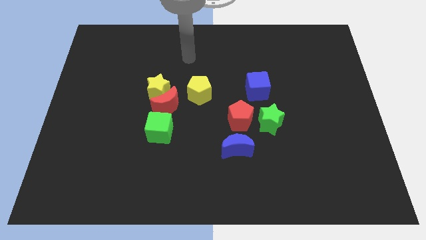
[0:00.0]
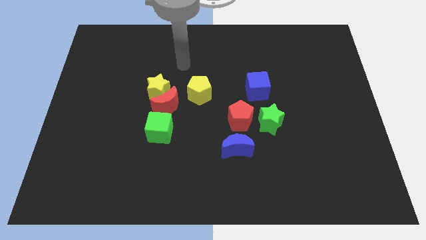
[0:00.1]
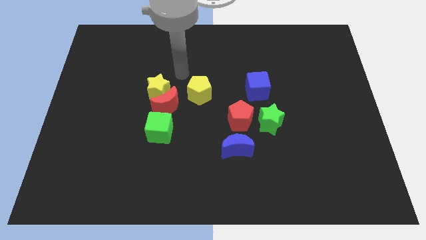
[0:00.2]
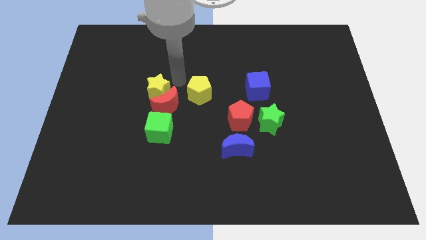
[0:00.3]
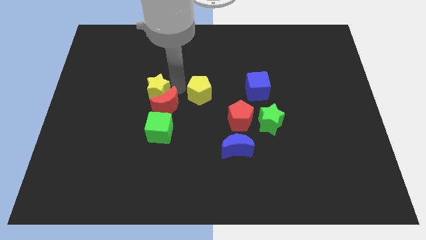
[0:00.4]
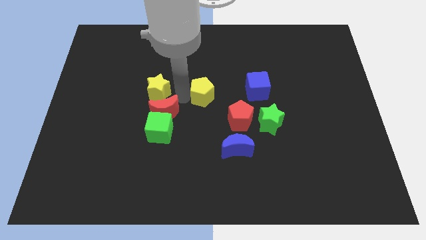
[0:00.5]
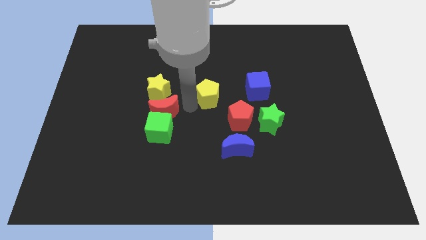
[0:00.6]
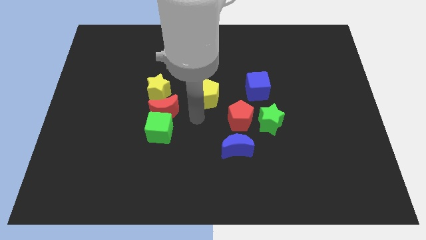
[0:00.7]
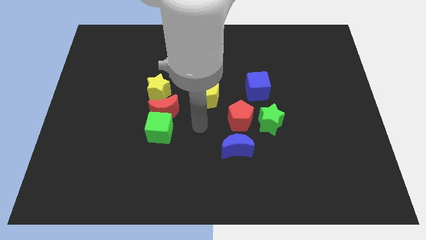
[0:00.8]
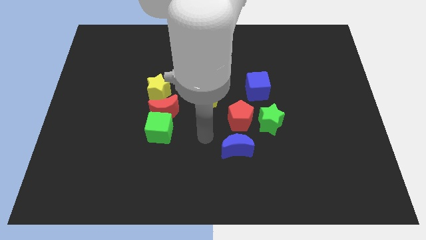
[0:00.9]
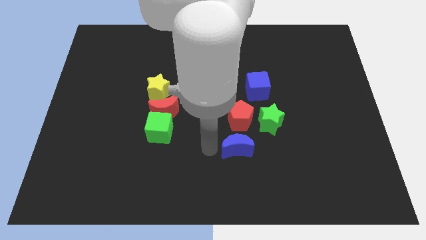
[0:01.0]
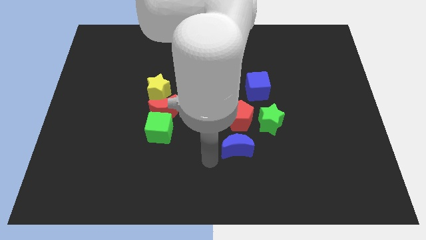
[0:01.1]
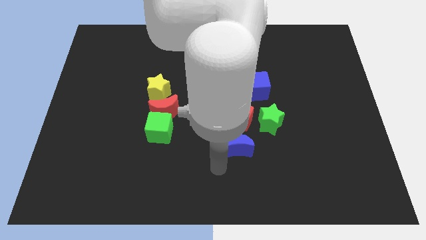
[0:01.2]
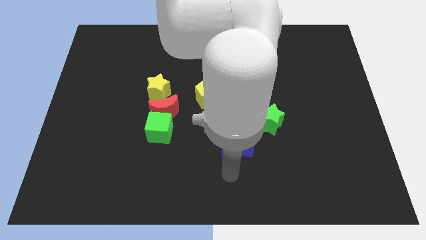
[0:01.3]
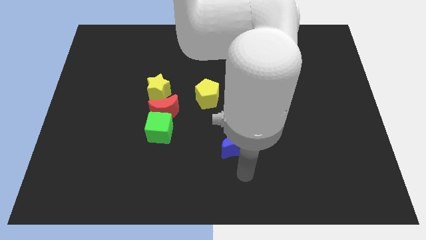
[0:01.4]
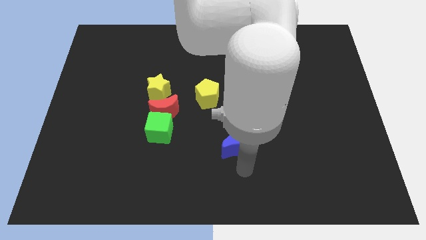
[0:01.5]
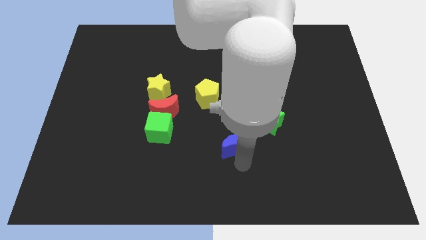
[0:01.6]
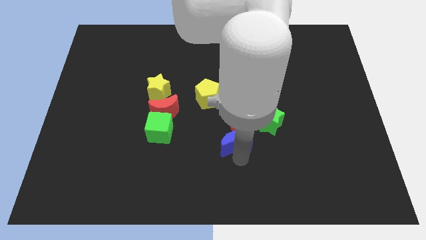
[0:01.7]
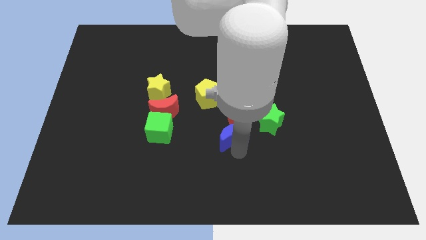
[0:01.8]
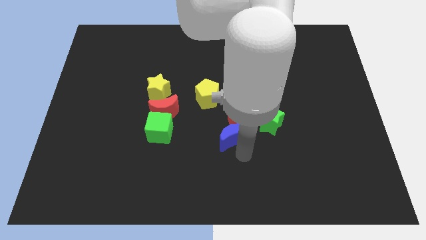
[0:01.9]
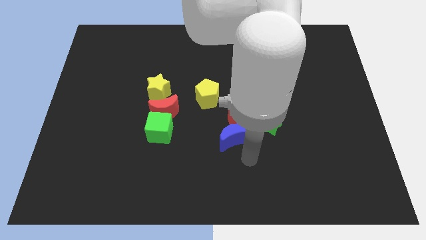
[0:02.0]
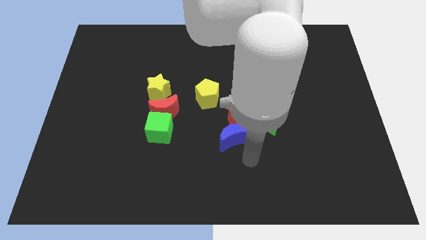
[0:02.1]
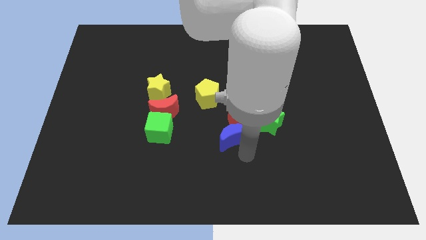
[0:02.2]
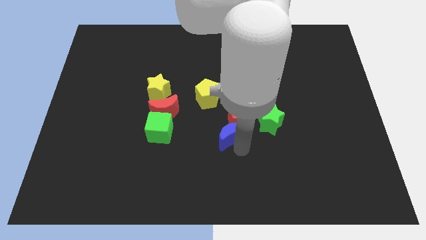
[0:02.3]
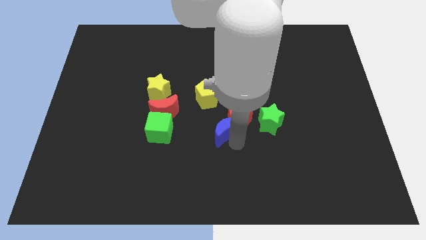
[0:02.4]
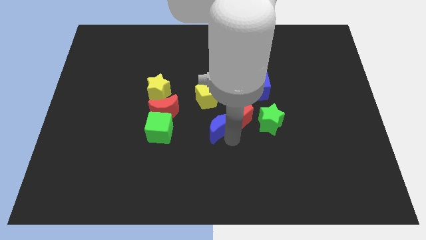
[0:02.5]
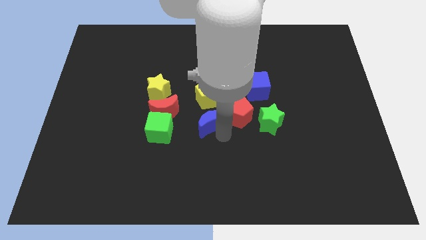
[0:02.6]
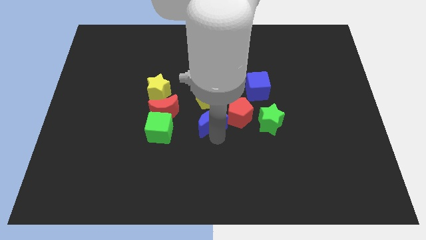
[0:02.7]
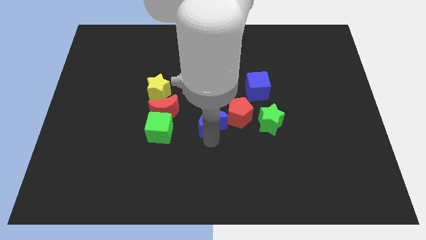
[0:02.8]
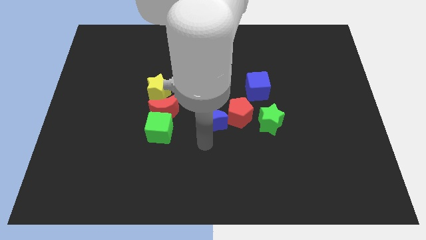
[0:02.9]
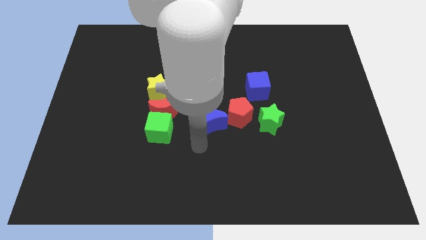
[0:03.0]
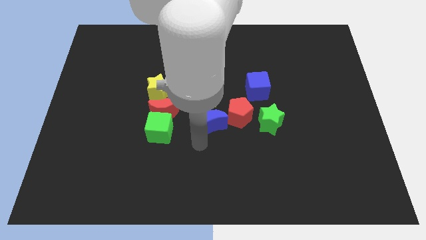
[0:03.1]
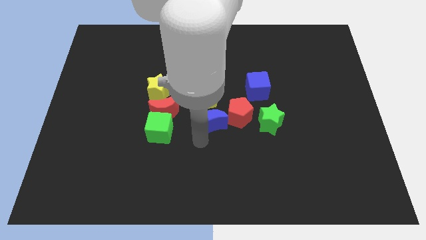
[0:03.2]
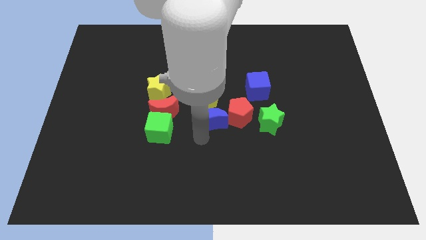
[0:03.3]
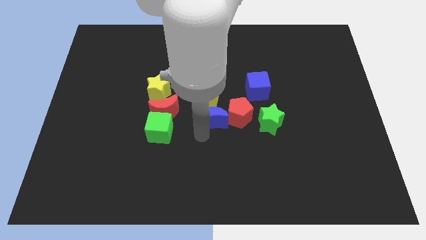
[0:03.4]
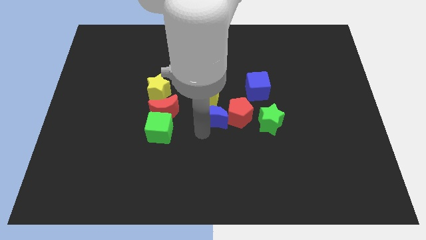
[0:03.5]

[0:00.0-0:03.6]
push the blue moon slightly upwards

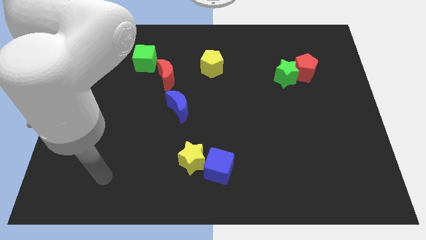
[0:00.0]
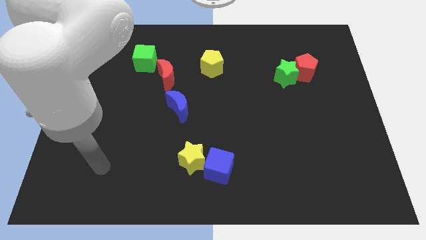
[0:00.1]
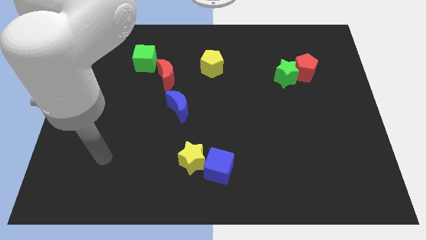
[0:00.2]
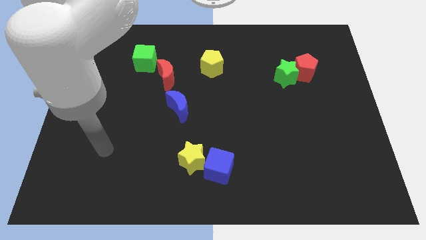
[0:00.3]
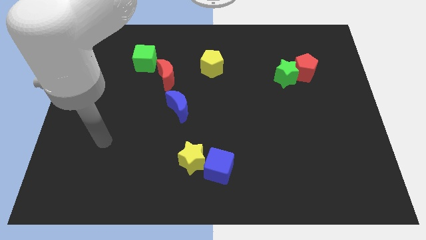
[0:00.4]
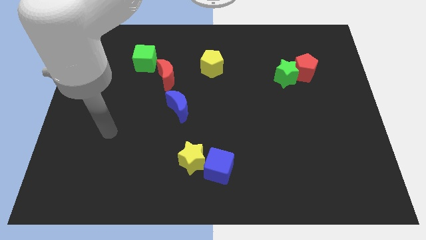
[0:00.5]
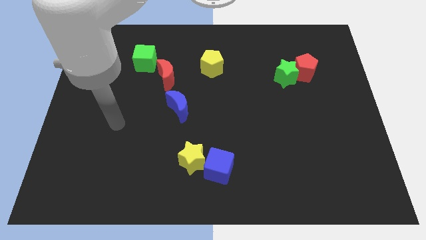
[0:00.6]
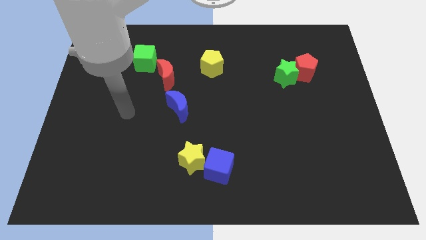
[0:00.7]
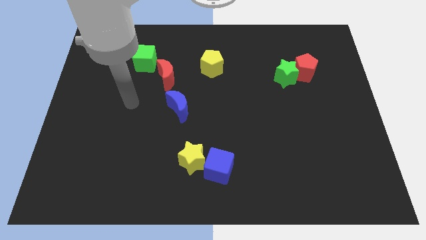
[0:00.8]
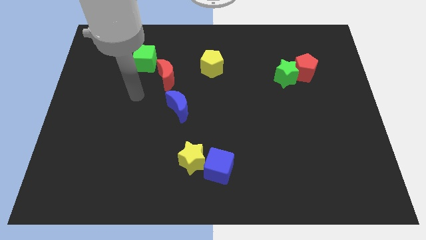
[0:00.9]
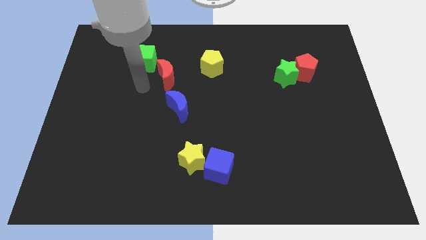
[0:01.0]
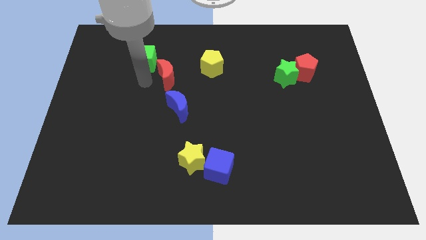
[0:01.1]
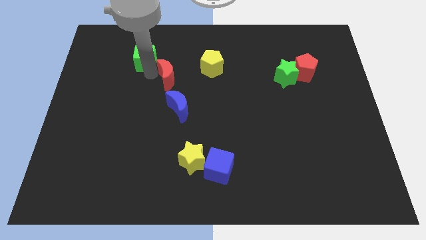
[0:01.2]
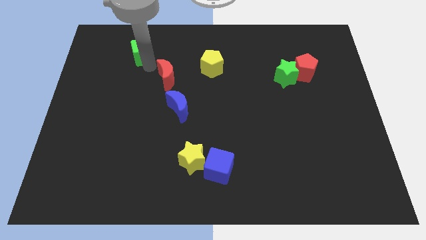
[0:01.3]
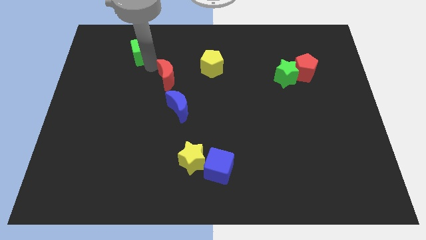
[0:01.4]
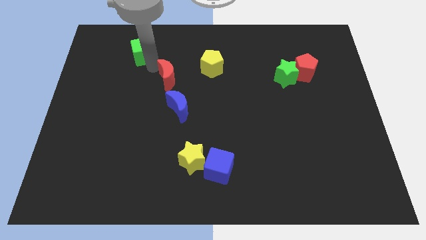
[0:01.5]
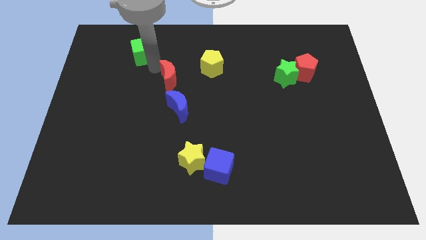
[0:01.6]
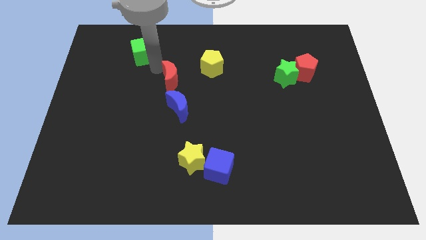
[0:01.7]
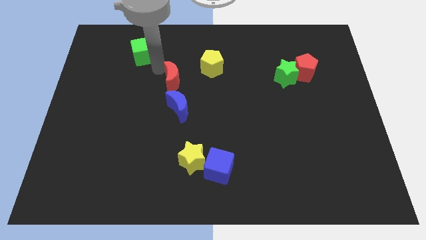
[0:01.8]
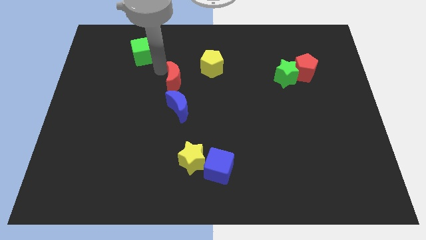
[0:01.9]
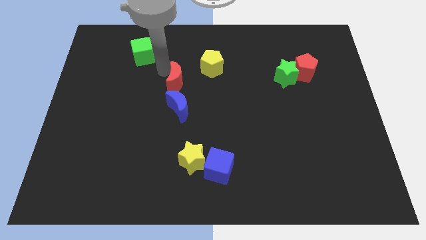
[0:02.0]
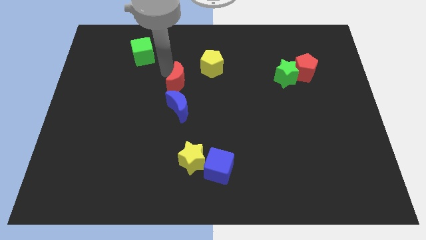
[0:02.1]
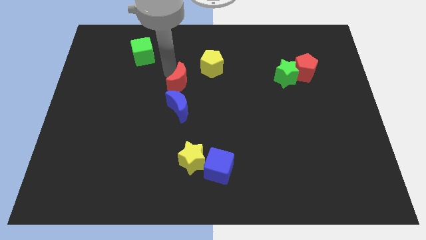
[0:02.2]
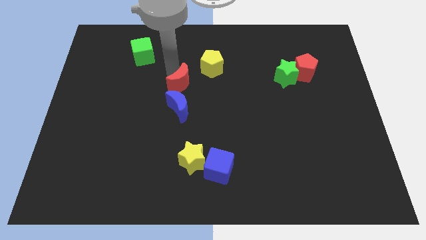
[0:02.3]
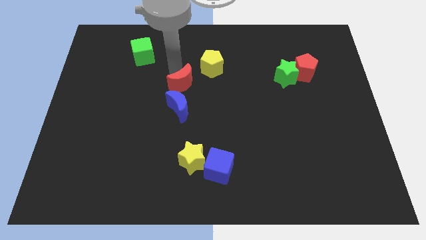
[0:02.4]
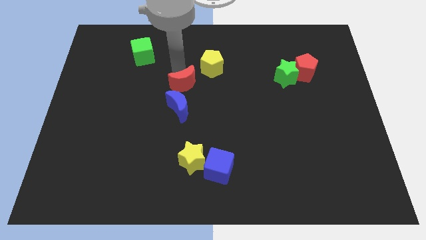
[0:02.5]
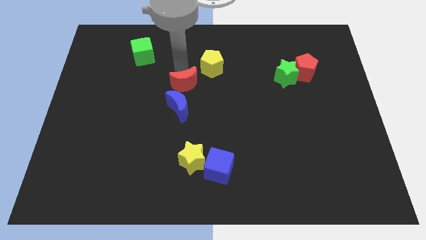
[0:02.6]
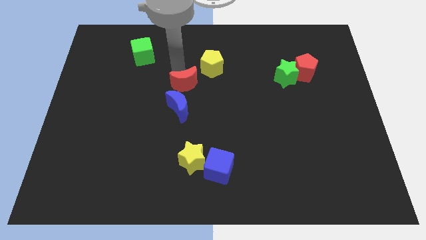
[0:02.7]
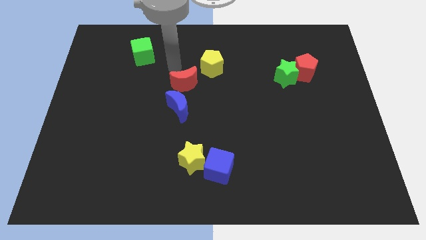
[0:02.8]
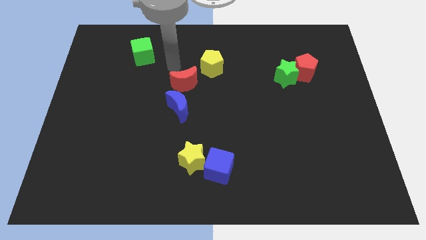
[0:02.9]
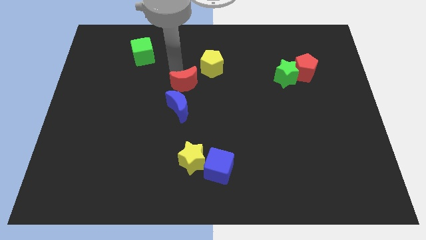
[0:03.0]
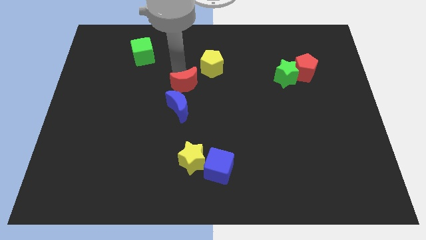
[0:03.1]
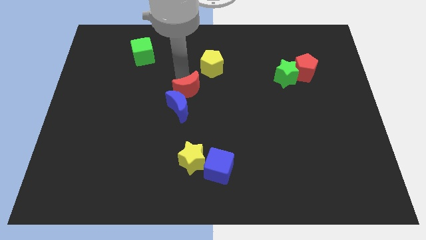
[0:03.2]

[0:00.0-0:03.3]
push the red moon slightly downwards and to the right diagonally

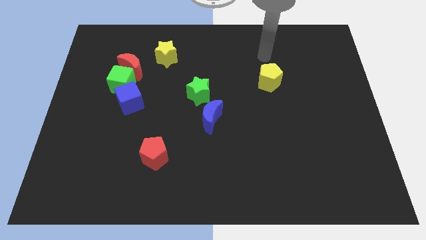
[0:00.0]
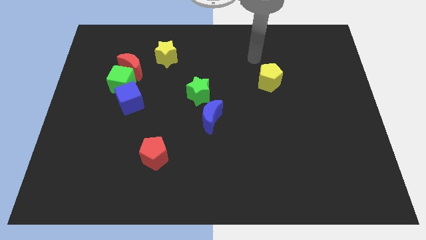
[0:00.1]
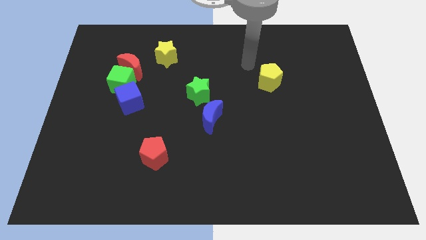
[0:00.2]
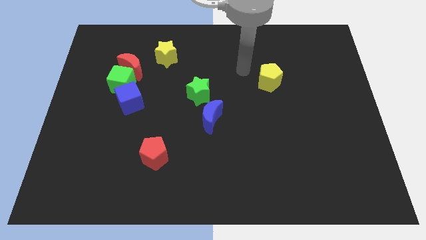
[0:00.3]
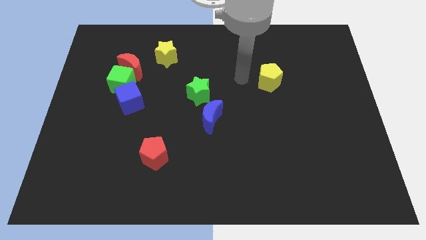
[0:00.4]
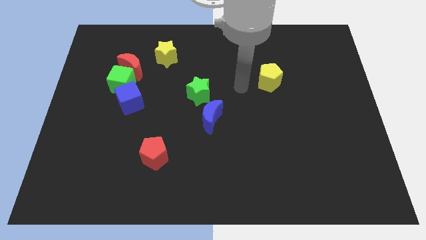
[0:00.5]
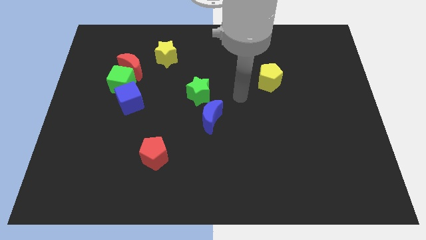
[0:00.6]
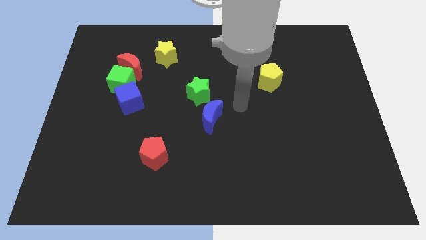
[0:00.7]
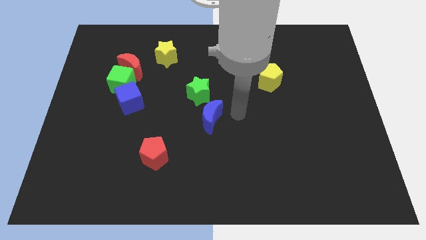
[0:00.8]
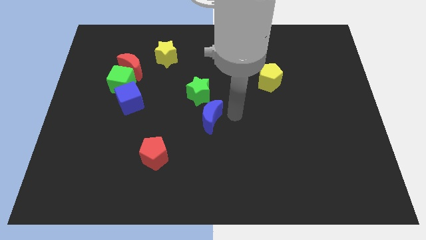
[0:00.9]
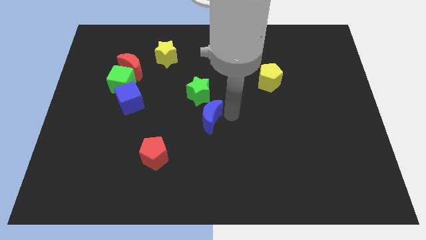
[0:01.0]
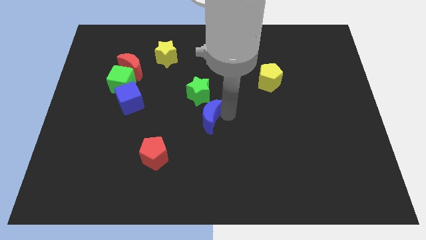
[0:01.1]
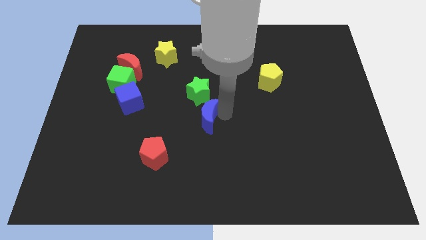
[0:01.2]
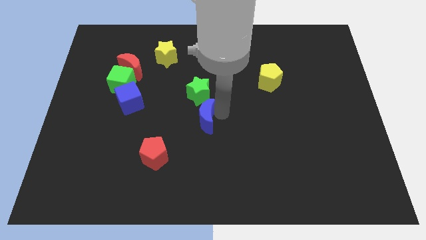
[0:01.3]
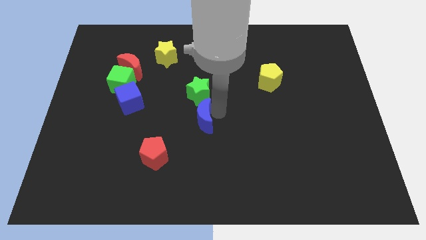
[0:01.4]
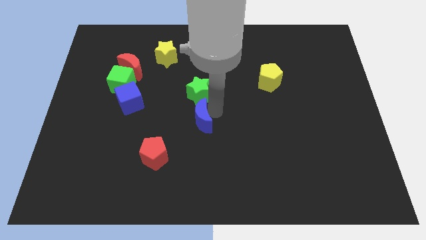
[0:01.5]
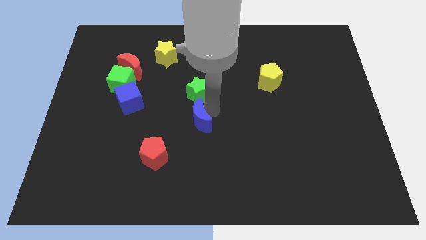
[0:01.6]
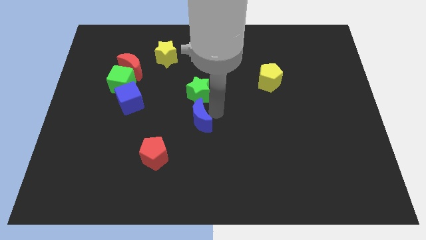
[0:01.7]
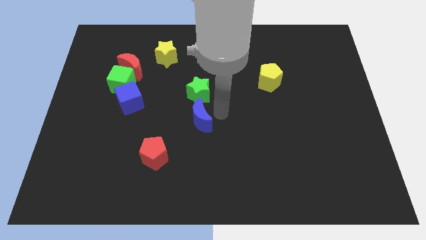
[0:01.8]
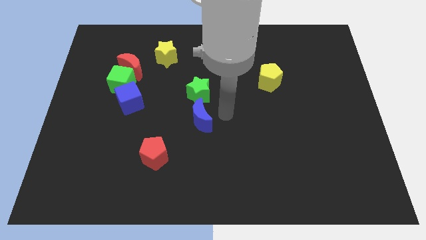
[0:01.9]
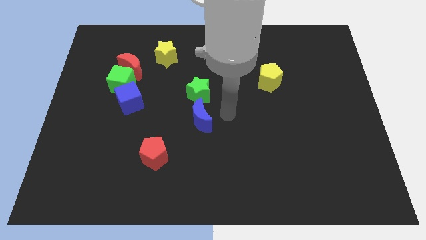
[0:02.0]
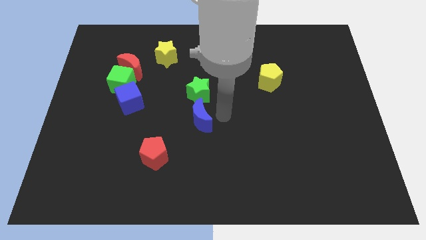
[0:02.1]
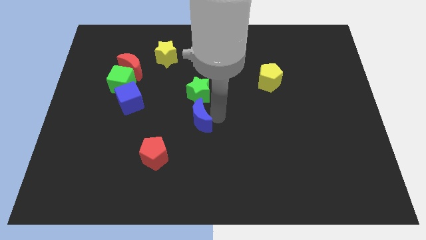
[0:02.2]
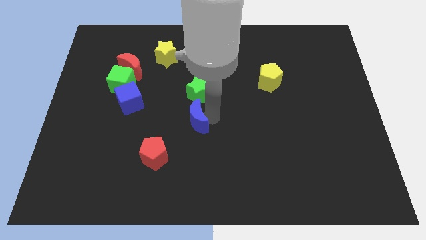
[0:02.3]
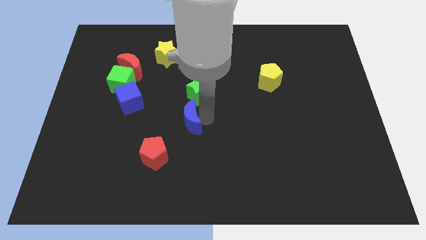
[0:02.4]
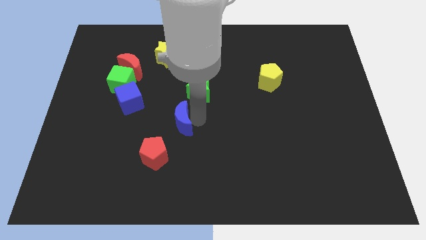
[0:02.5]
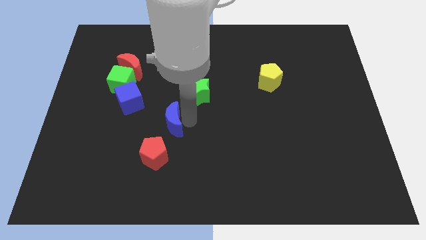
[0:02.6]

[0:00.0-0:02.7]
slide the blue moon left somewhat
